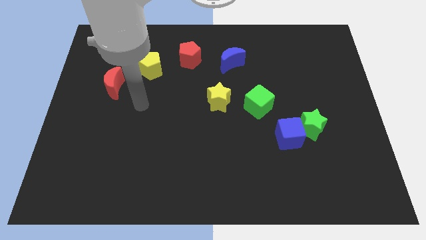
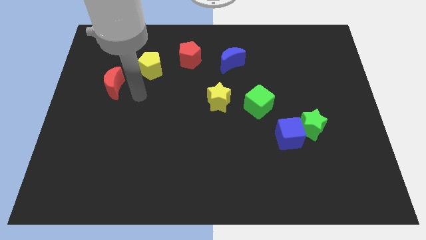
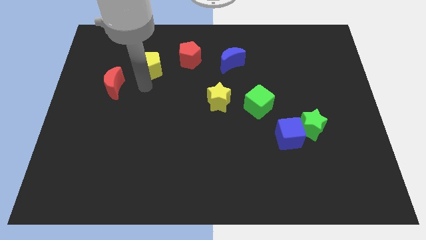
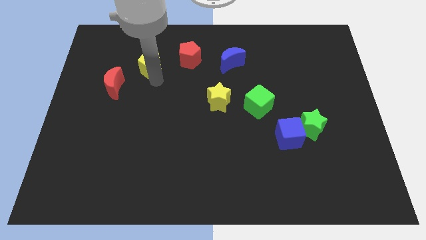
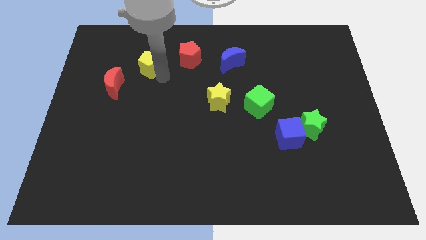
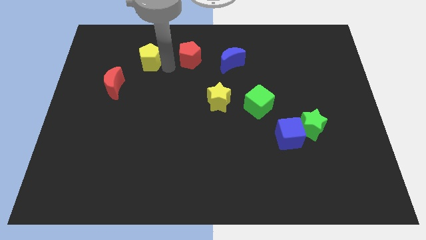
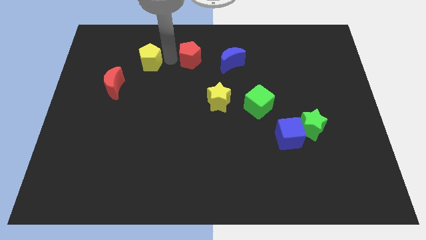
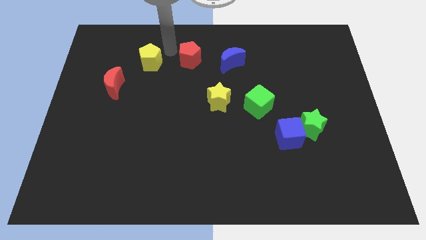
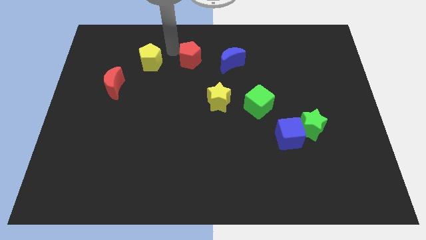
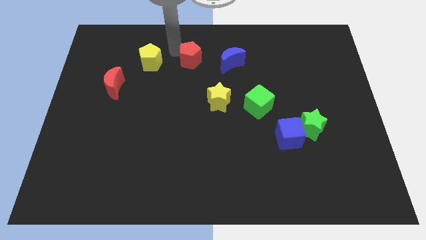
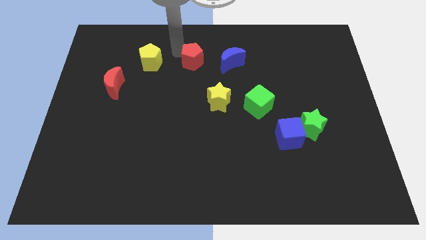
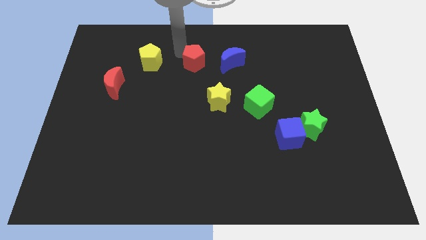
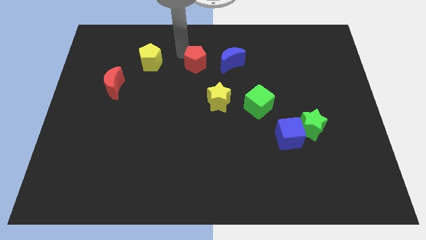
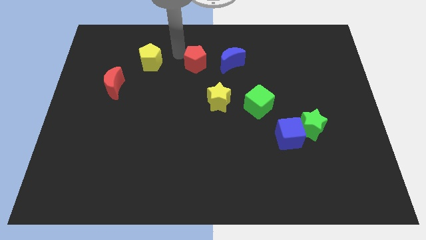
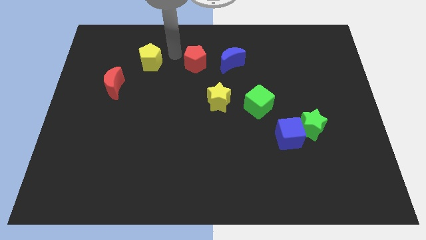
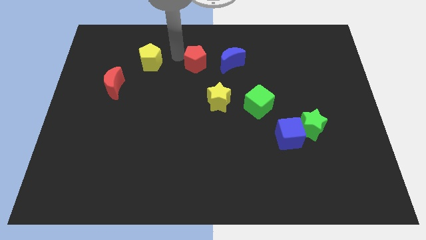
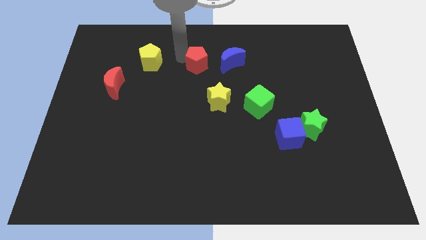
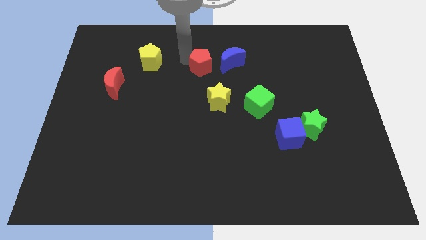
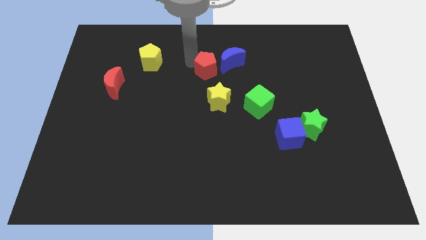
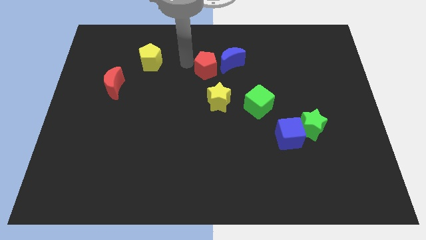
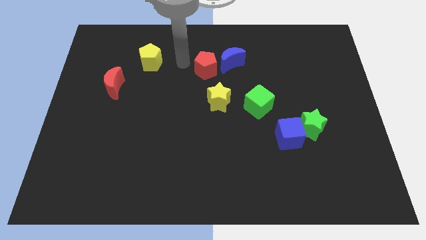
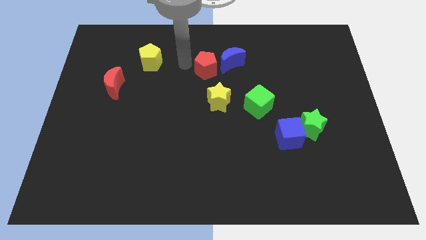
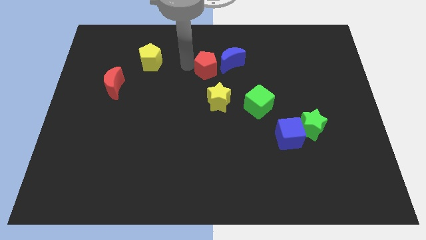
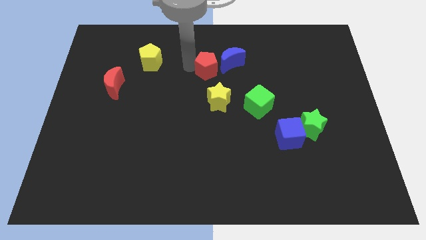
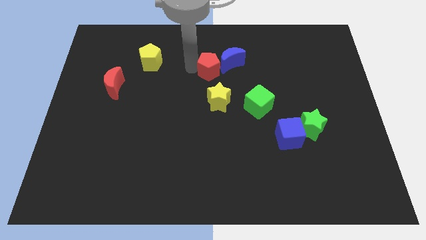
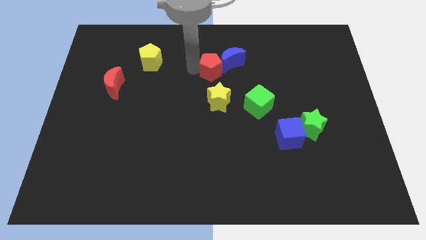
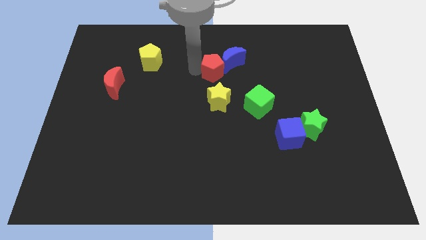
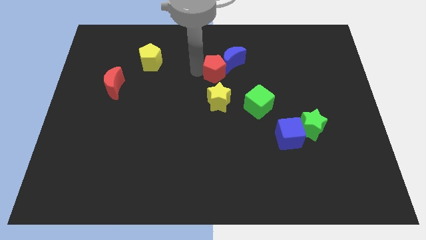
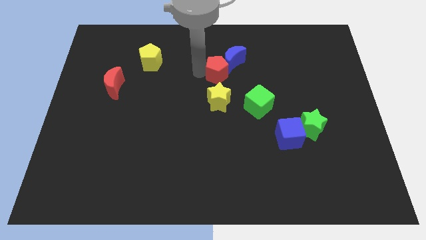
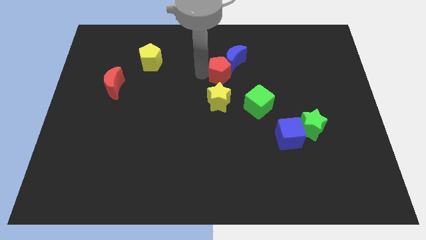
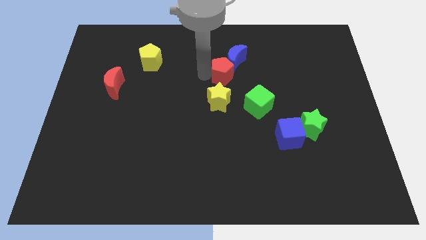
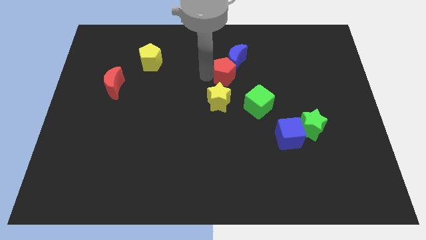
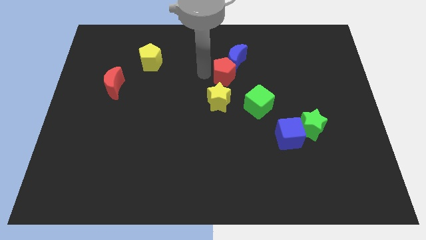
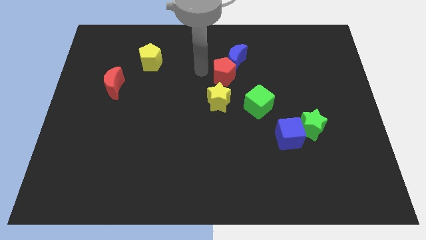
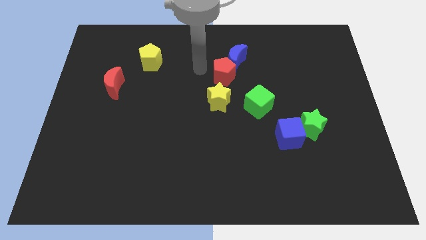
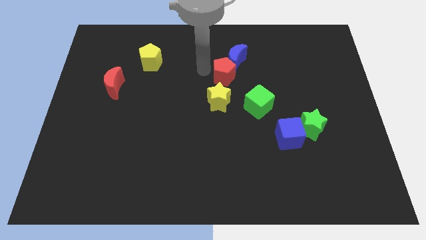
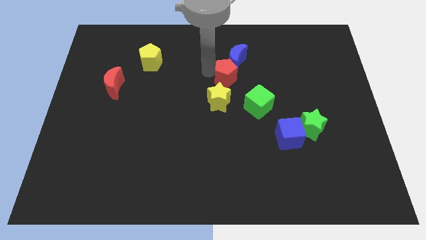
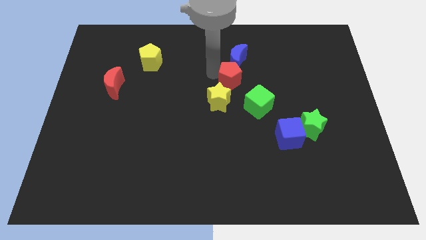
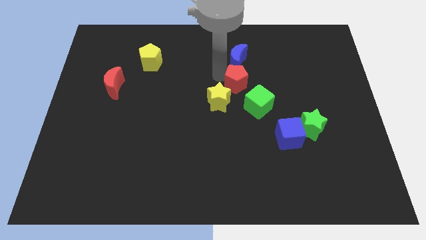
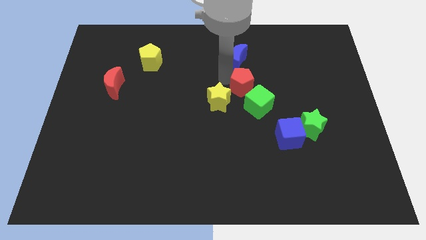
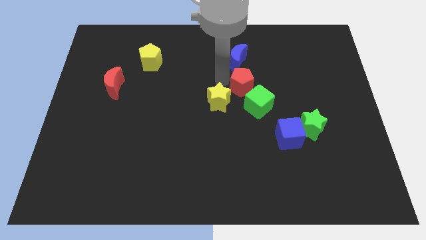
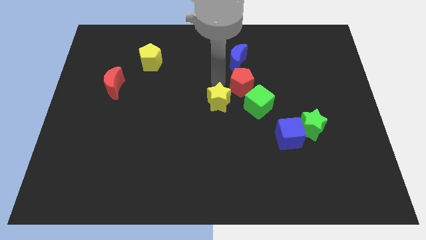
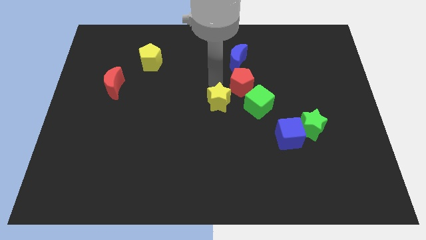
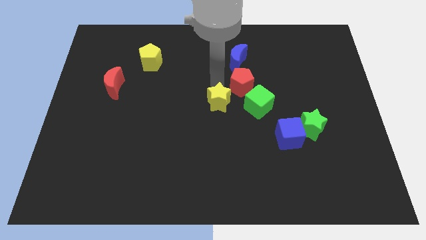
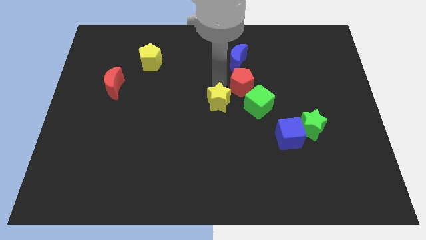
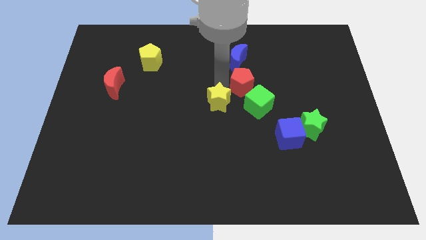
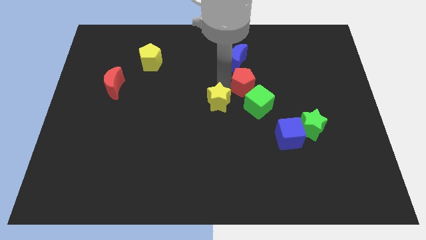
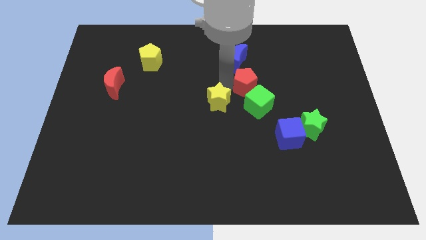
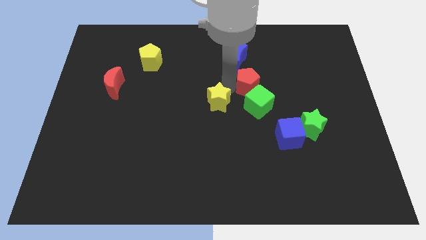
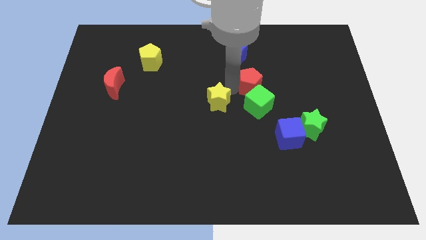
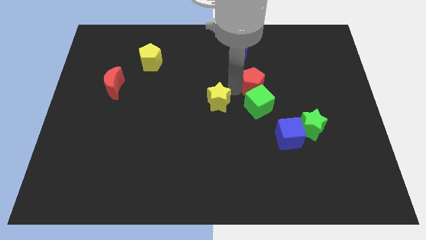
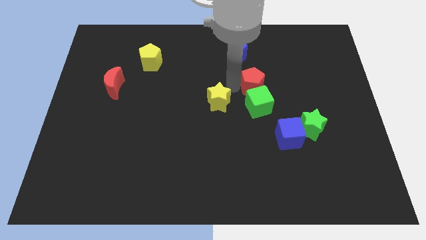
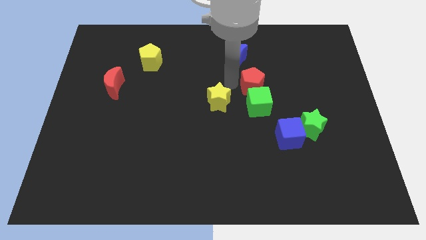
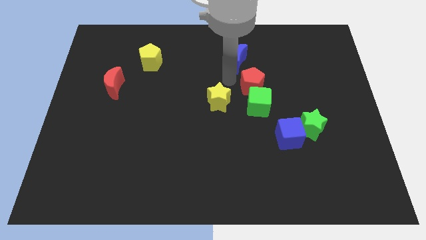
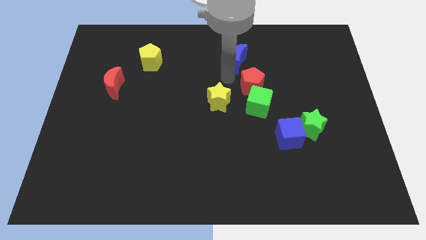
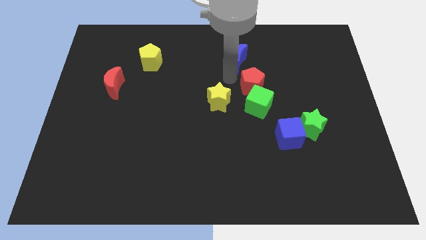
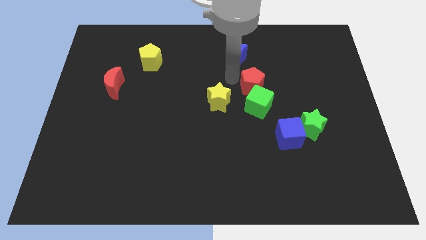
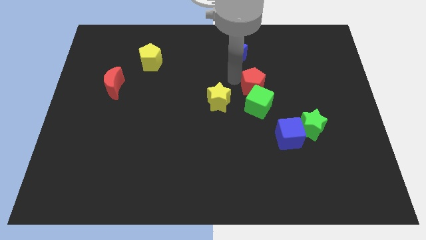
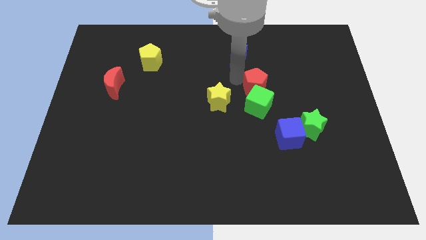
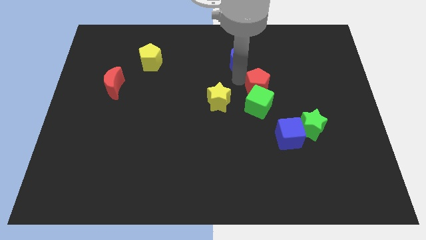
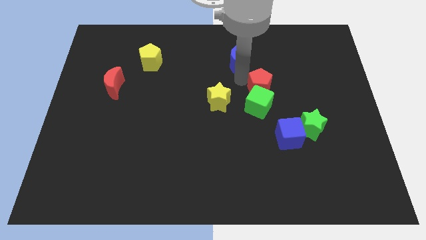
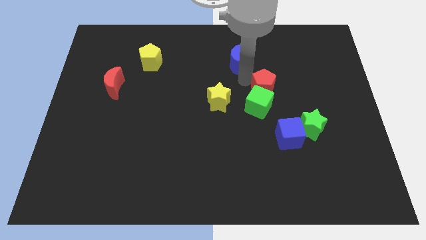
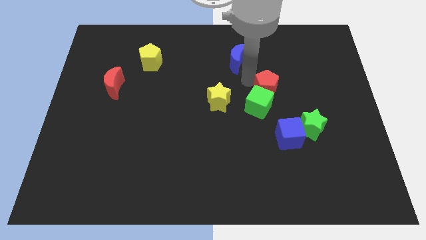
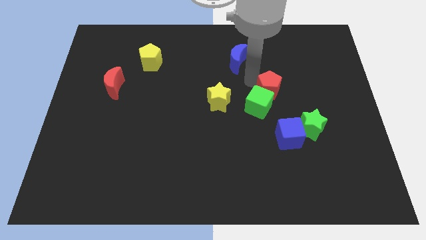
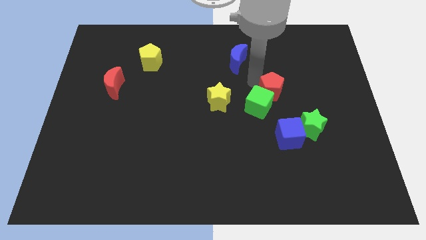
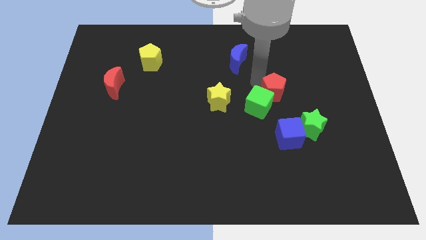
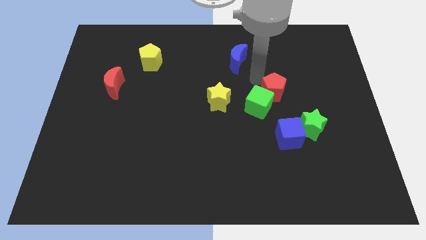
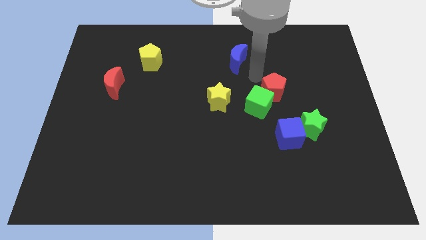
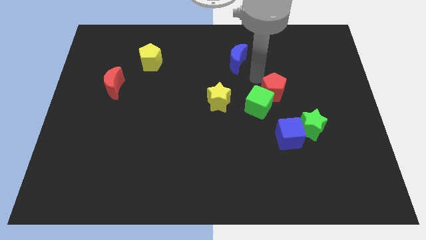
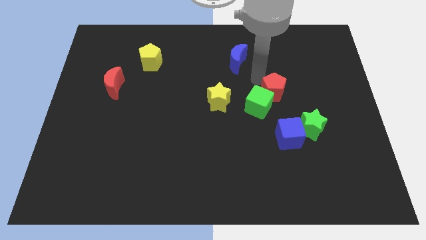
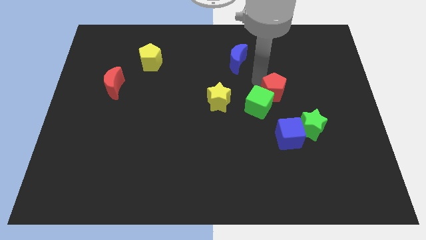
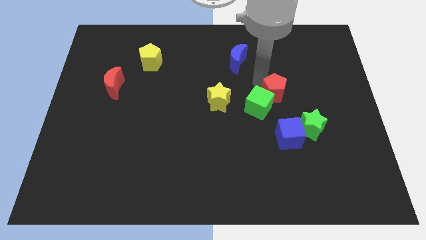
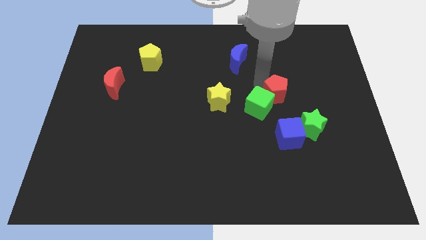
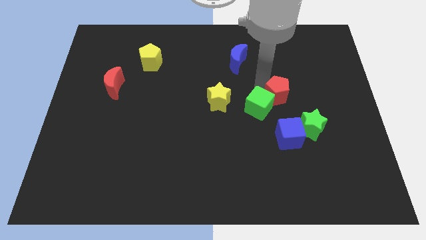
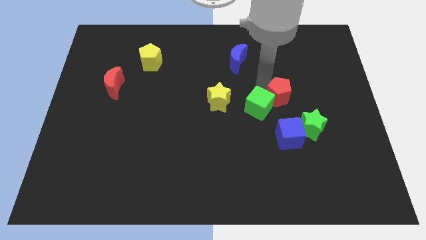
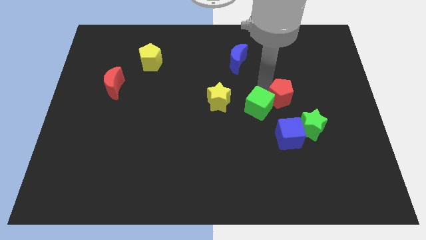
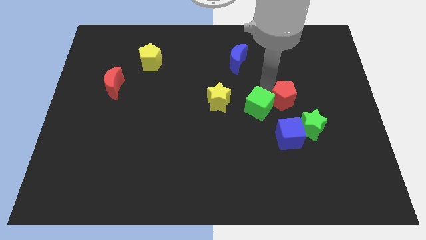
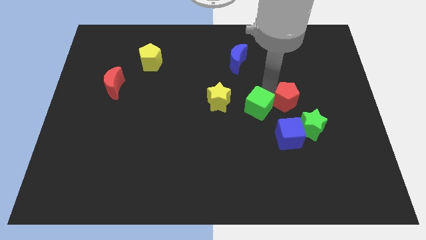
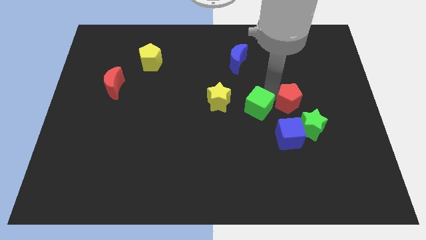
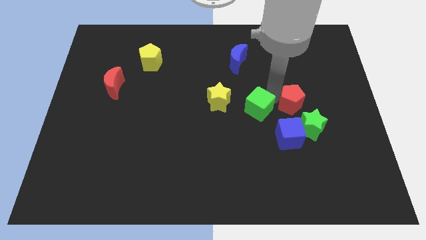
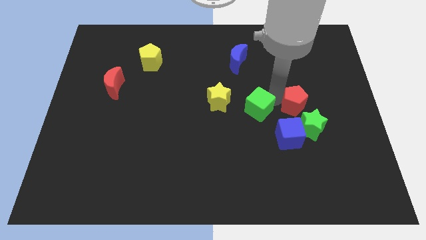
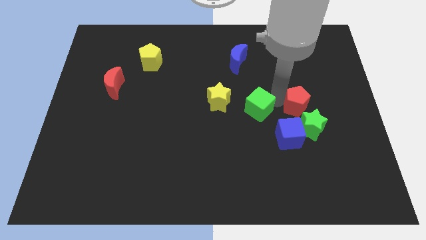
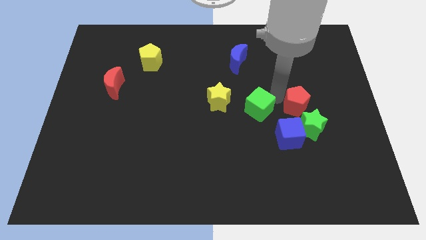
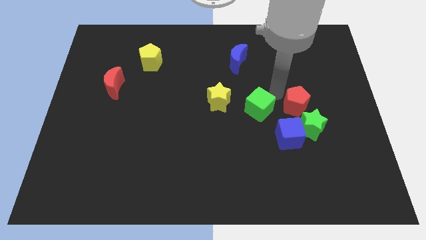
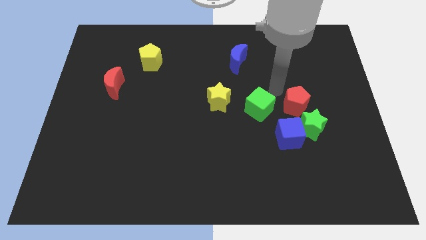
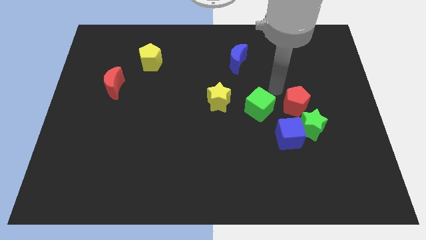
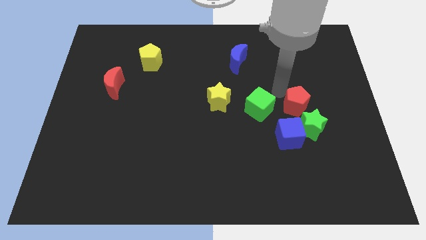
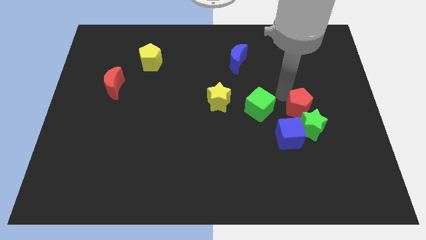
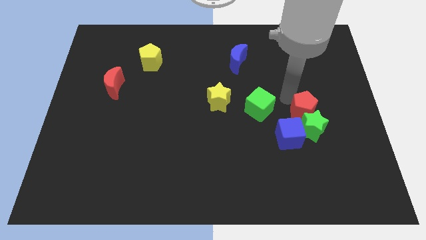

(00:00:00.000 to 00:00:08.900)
put the red pentagon to the green star
